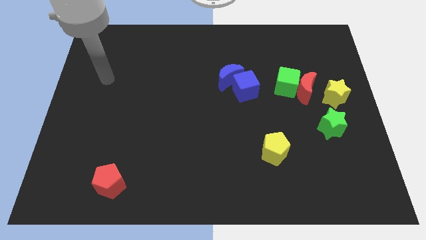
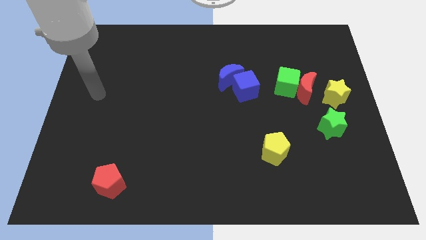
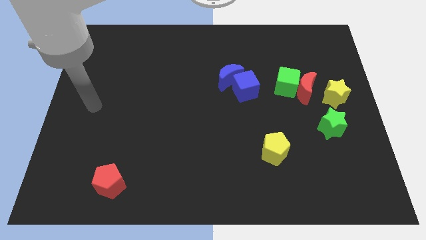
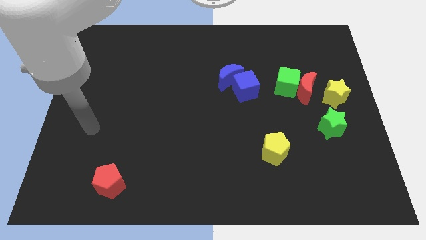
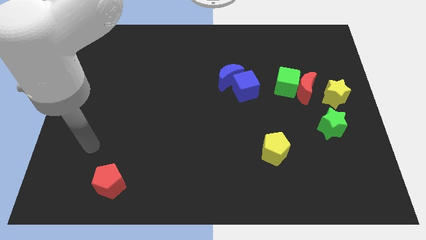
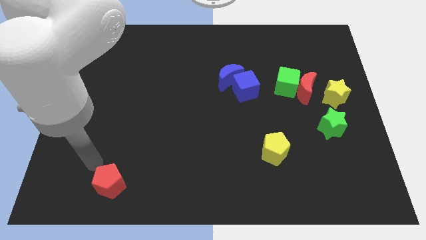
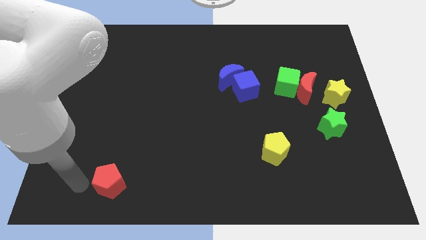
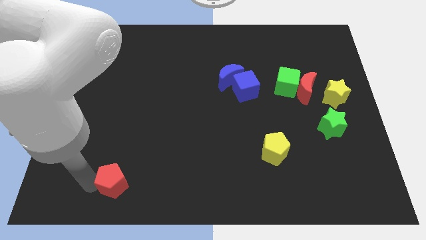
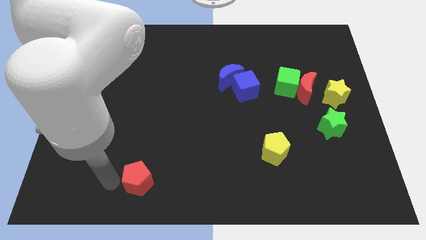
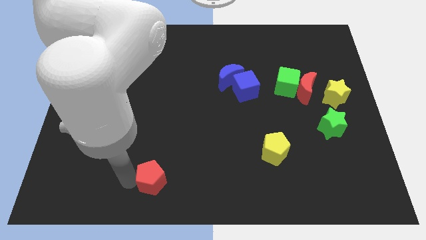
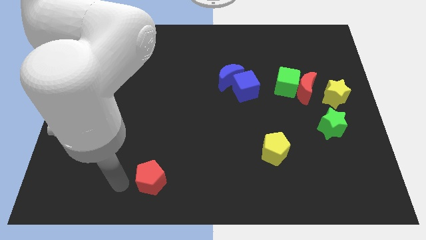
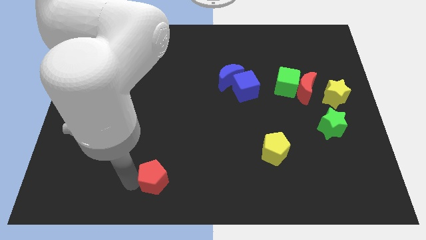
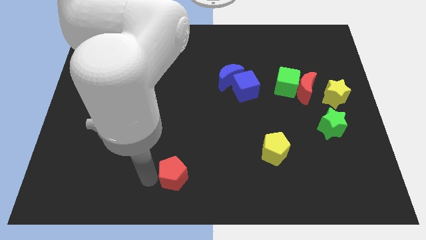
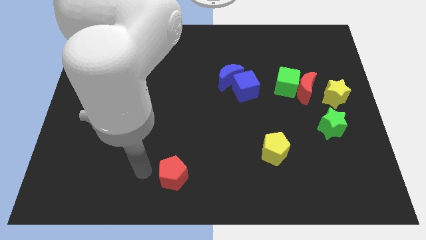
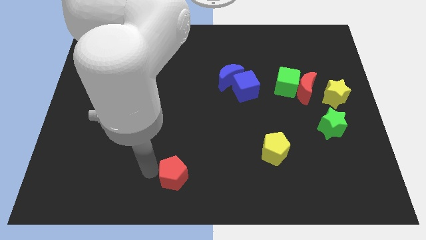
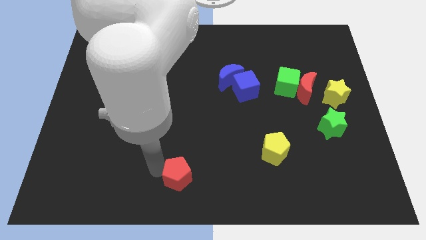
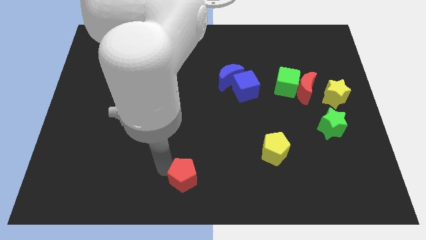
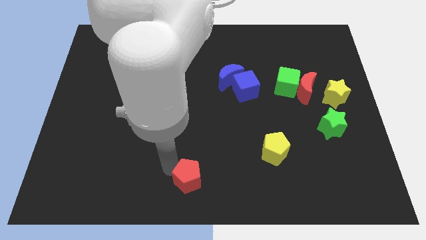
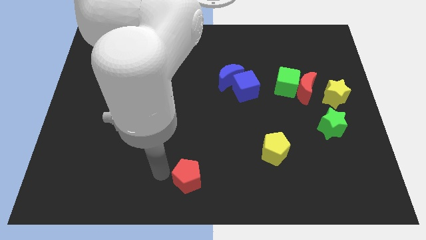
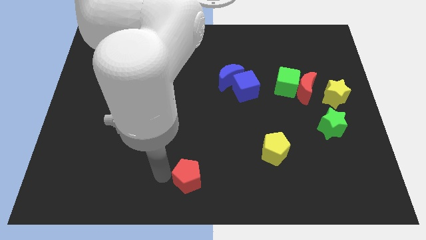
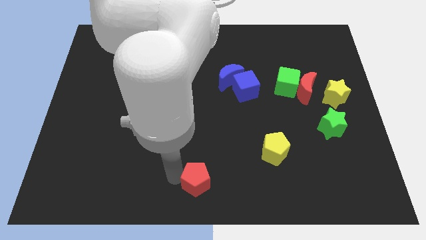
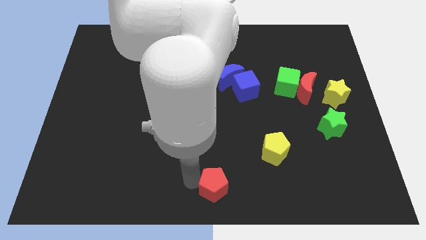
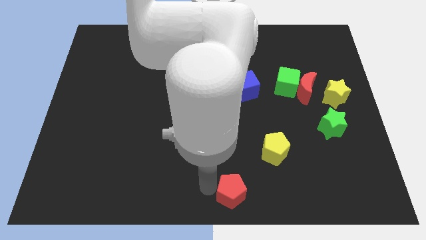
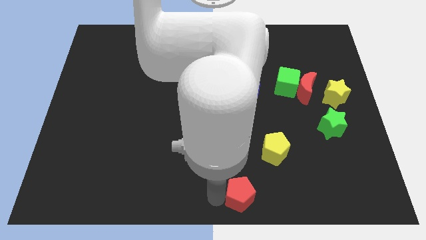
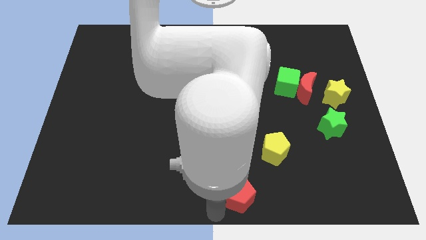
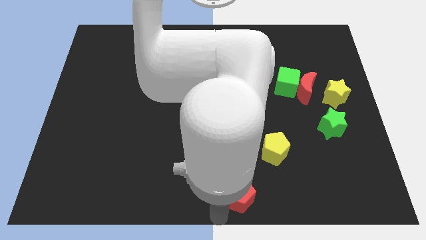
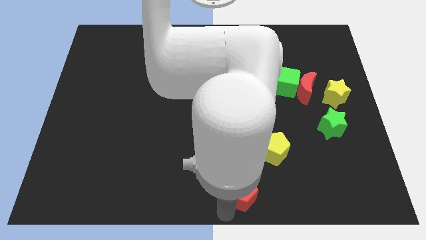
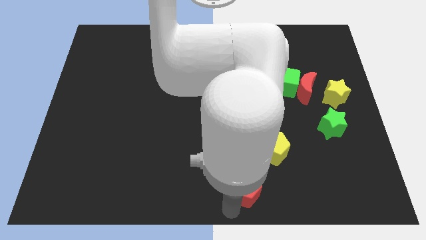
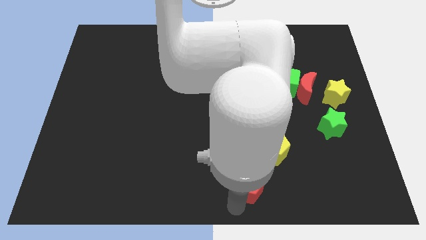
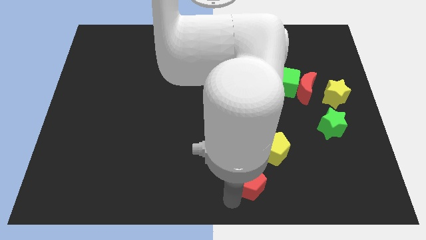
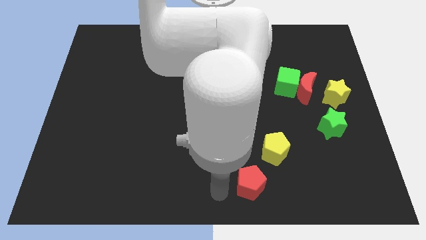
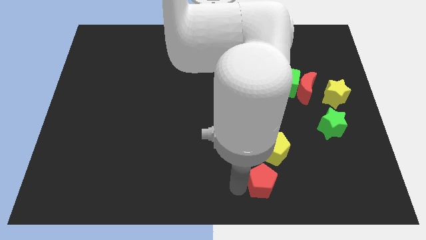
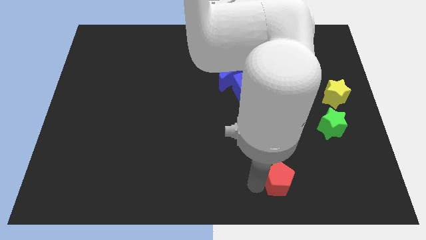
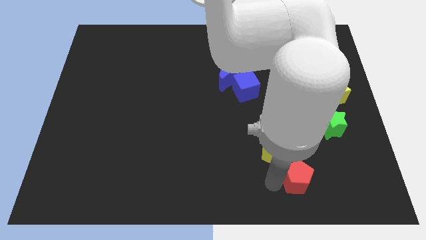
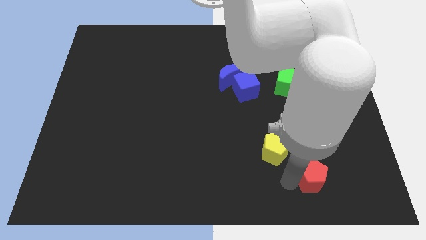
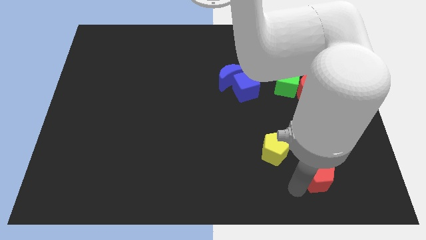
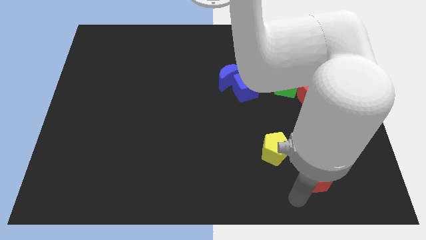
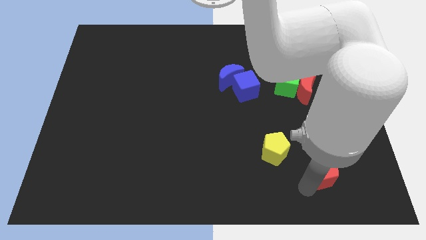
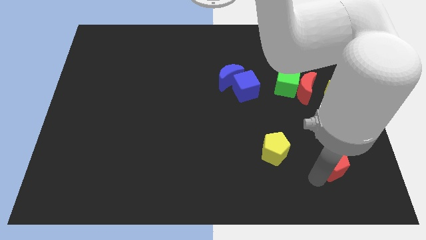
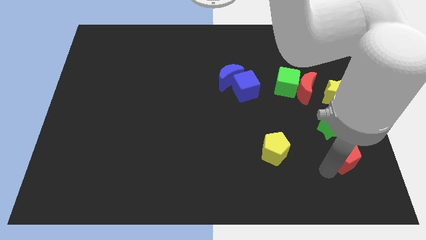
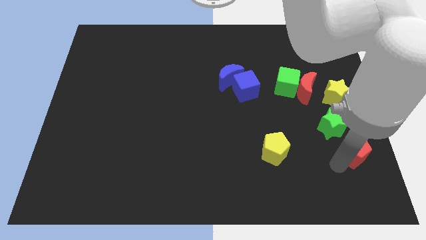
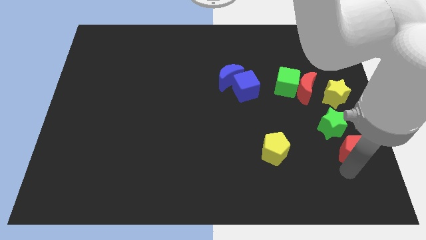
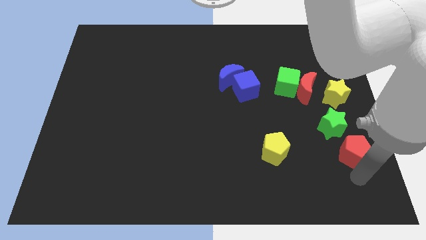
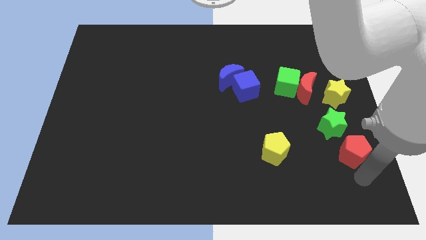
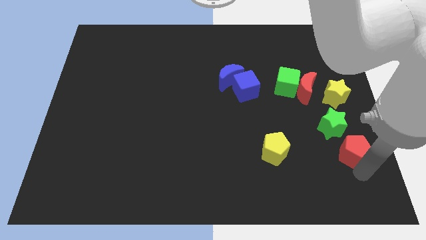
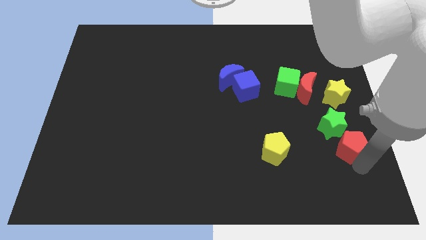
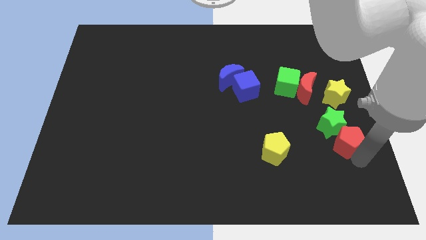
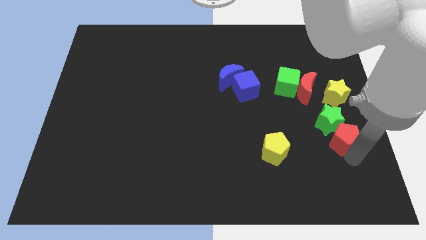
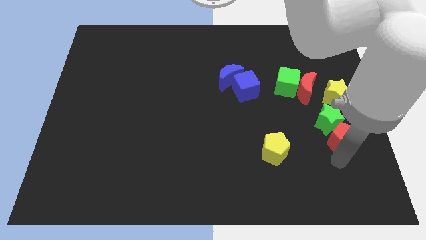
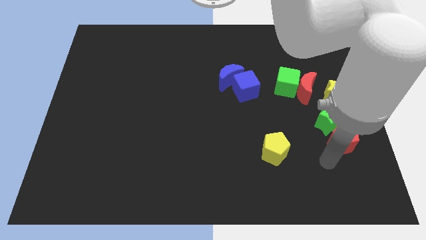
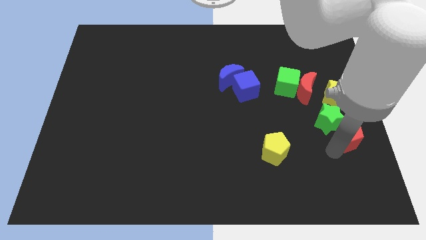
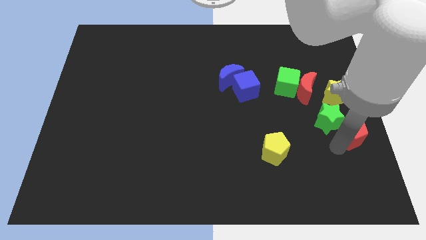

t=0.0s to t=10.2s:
slide the red pentagon to the right side
